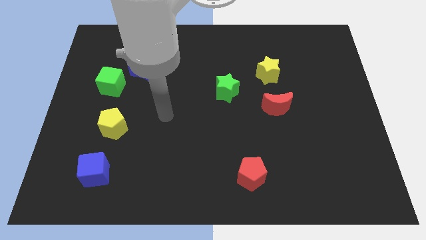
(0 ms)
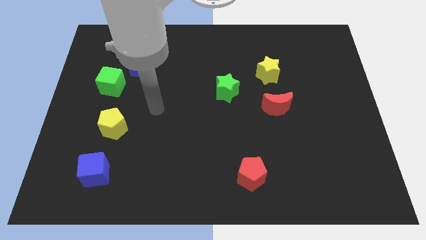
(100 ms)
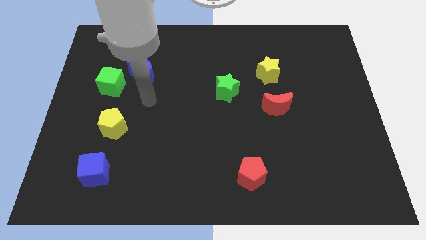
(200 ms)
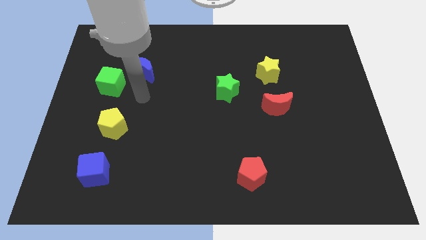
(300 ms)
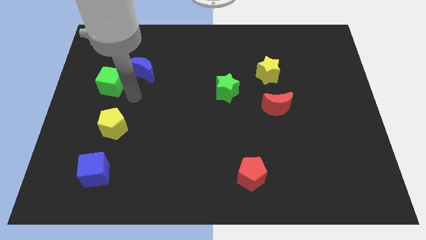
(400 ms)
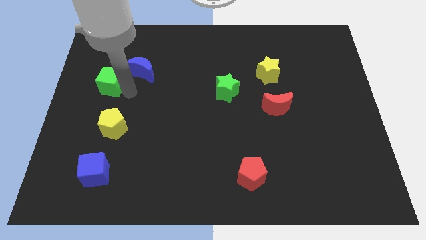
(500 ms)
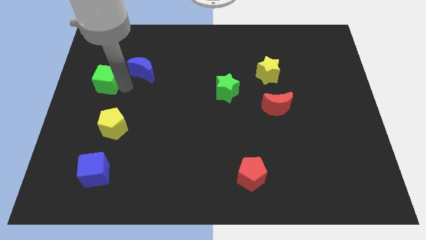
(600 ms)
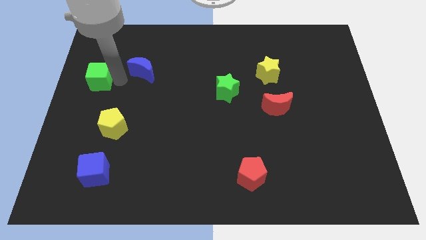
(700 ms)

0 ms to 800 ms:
separate the blue moon from the green cube

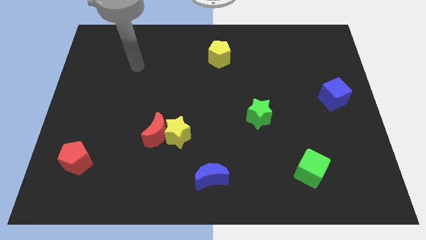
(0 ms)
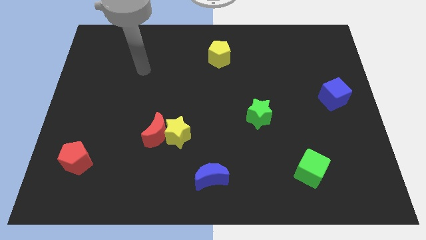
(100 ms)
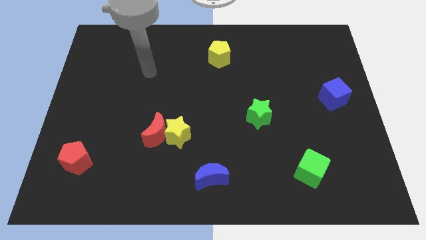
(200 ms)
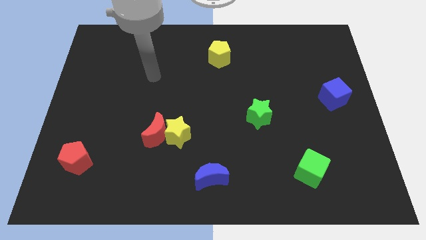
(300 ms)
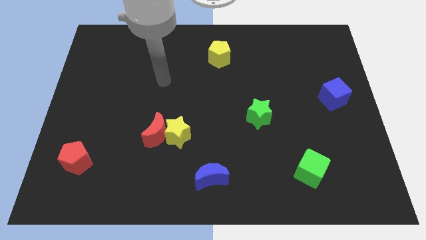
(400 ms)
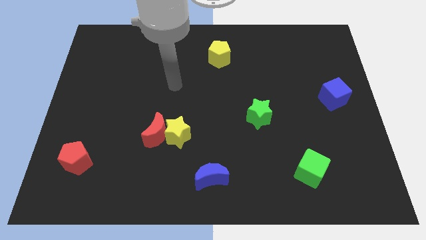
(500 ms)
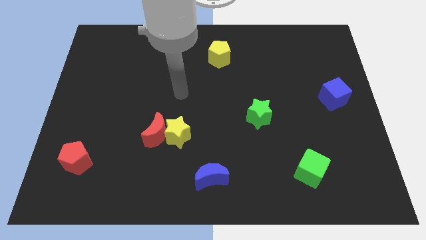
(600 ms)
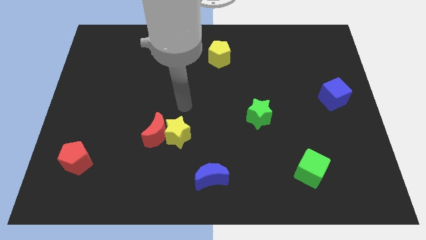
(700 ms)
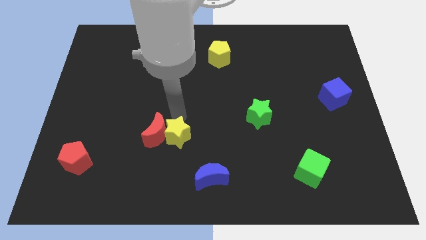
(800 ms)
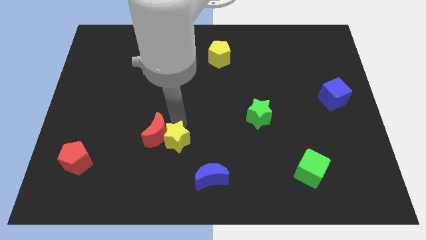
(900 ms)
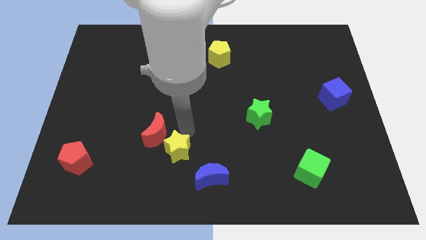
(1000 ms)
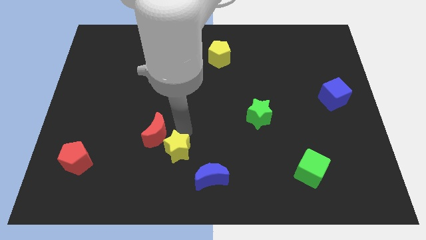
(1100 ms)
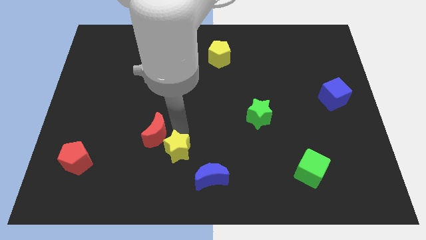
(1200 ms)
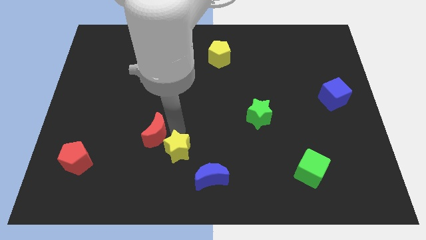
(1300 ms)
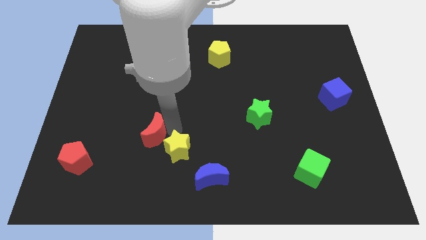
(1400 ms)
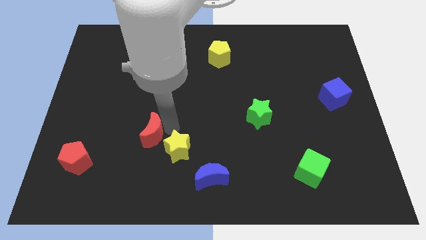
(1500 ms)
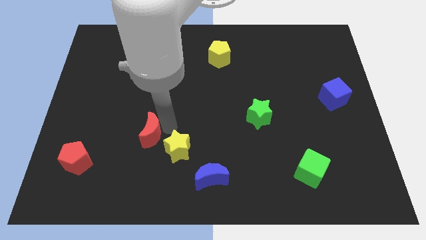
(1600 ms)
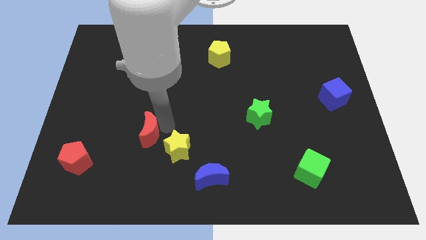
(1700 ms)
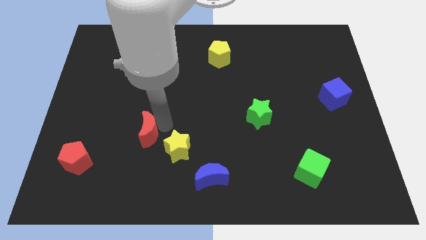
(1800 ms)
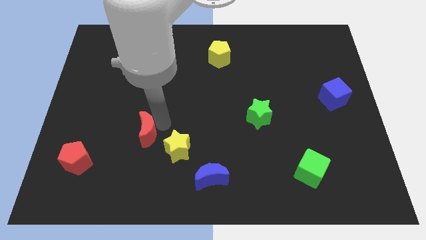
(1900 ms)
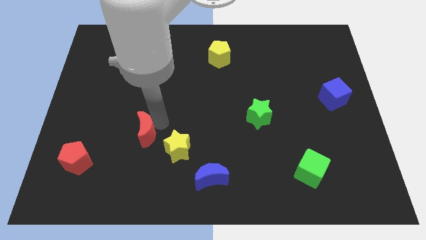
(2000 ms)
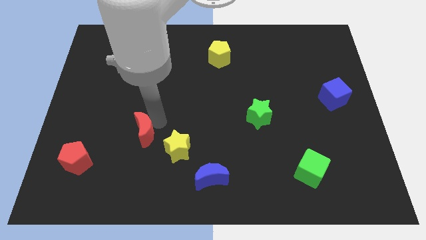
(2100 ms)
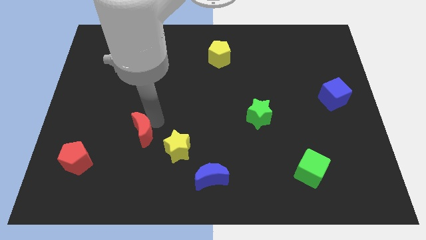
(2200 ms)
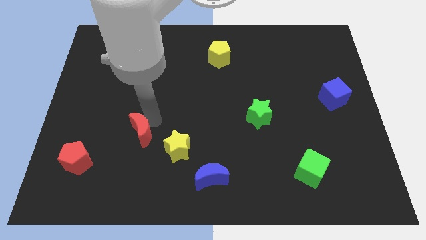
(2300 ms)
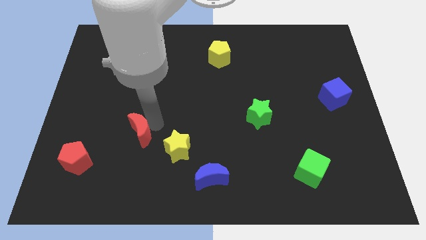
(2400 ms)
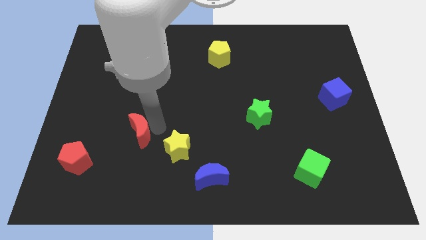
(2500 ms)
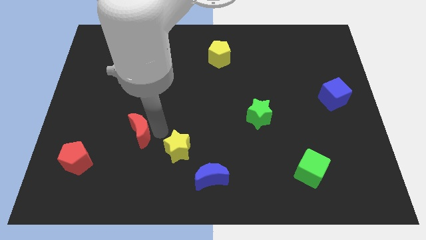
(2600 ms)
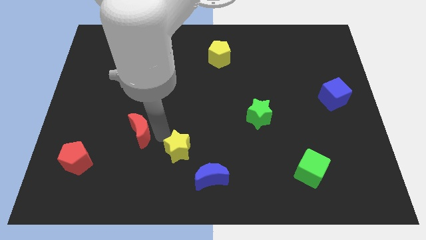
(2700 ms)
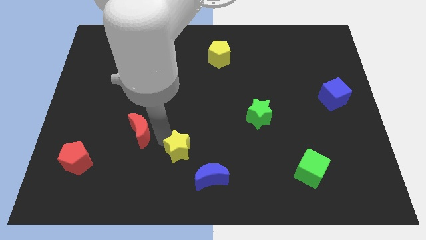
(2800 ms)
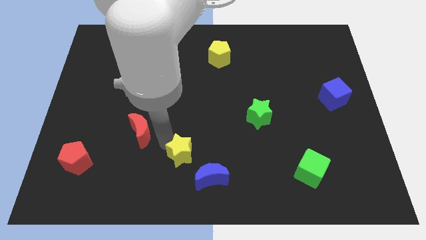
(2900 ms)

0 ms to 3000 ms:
move the red moon away from the yellow star

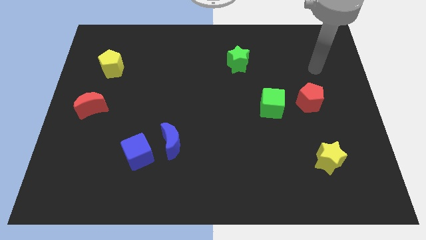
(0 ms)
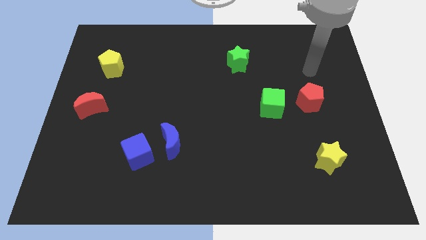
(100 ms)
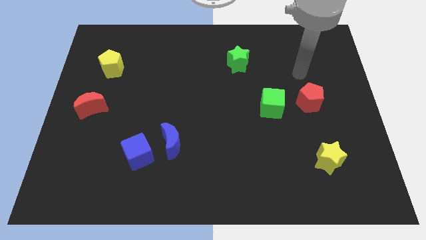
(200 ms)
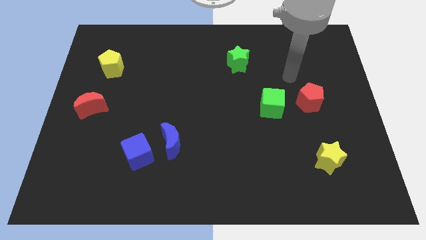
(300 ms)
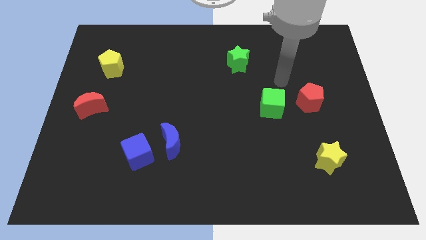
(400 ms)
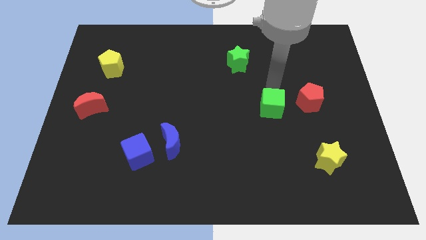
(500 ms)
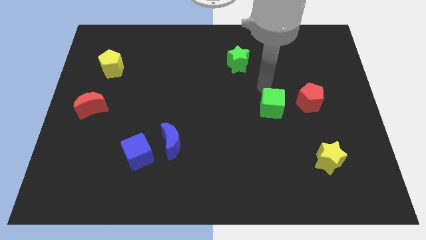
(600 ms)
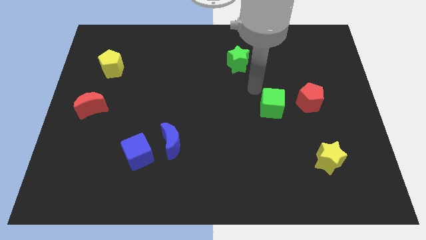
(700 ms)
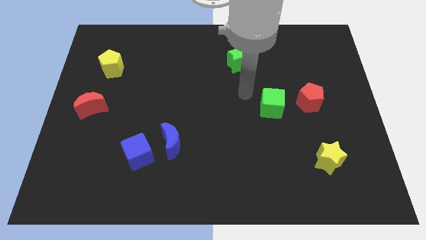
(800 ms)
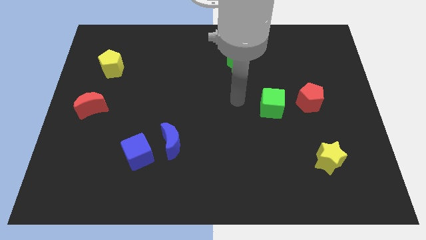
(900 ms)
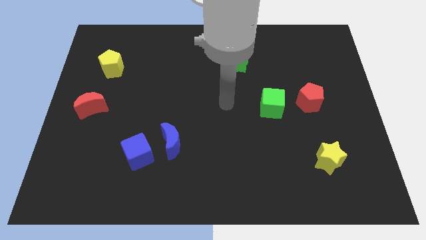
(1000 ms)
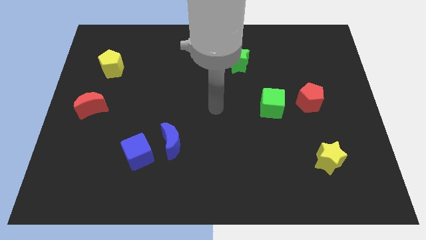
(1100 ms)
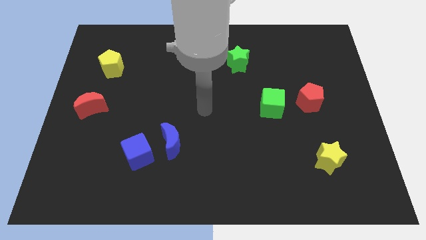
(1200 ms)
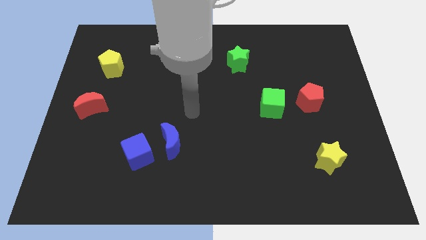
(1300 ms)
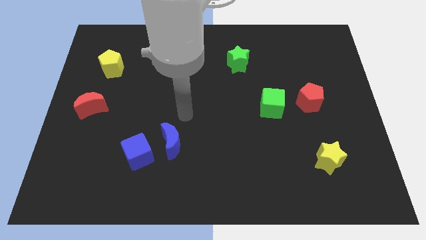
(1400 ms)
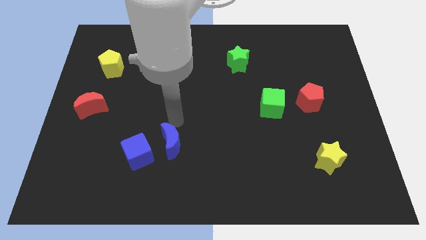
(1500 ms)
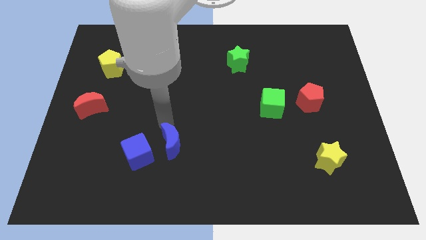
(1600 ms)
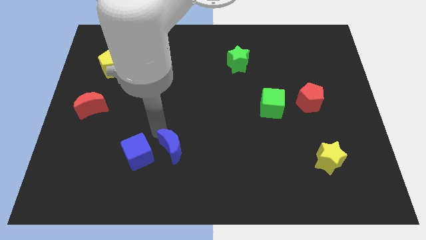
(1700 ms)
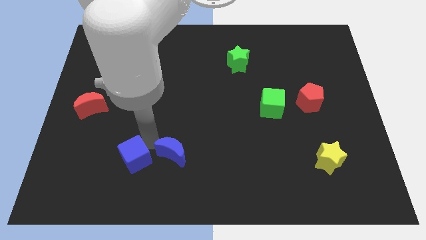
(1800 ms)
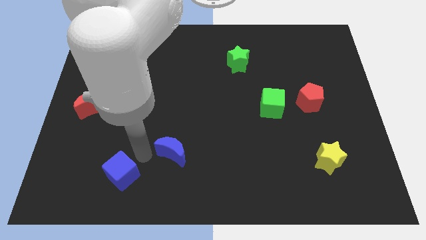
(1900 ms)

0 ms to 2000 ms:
separate the blue moon from the blue cube

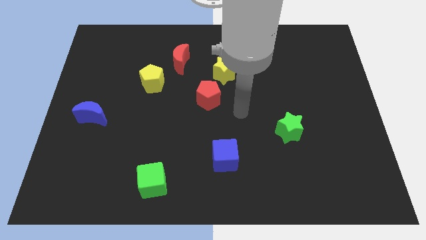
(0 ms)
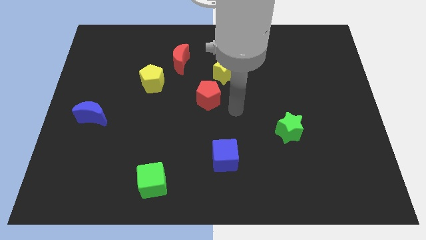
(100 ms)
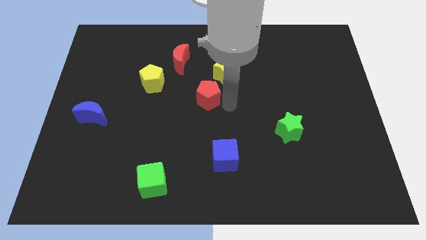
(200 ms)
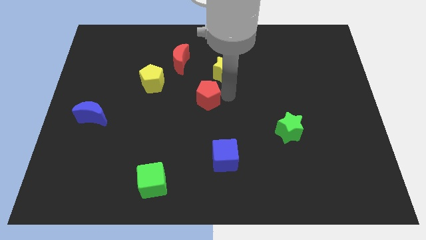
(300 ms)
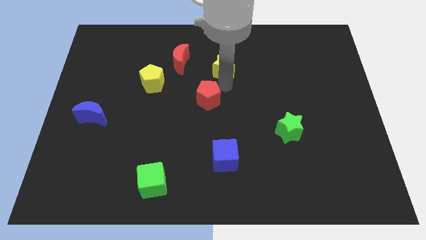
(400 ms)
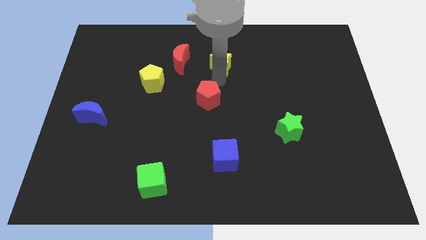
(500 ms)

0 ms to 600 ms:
move the red pentagon away from the yellow star

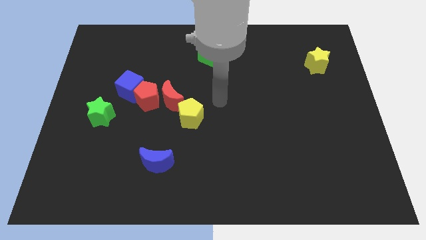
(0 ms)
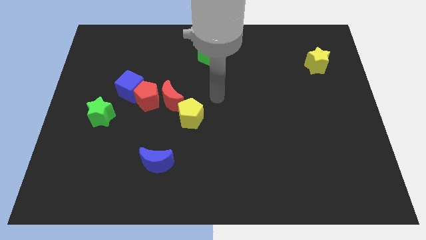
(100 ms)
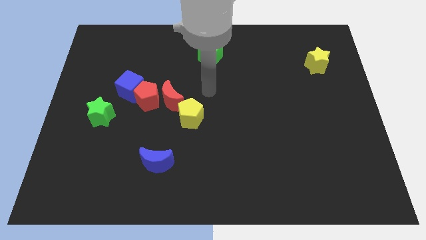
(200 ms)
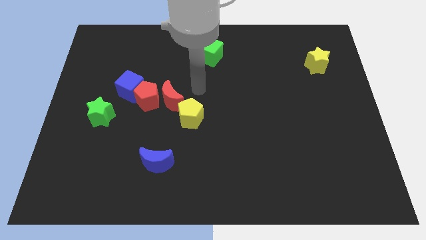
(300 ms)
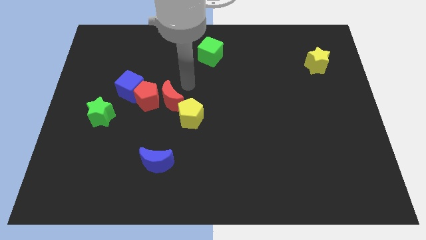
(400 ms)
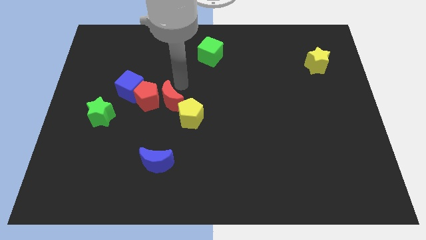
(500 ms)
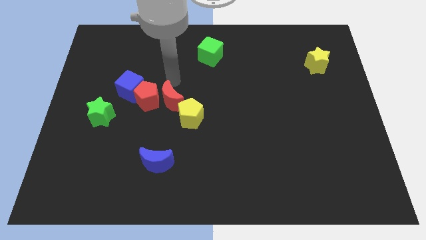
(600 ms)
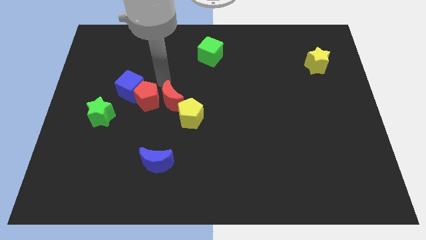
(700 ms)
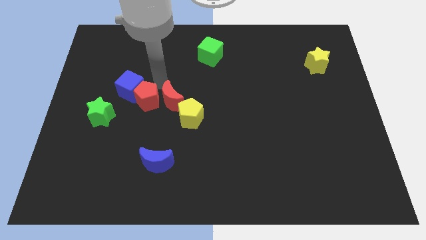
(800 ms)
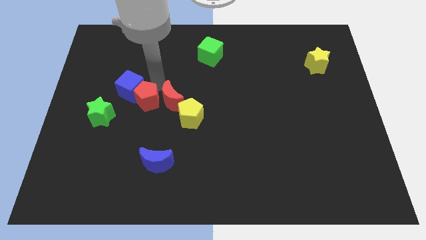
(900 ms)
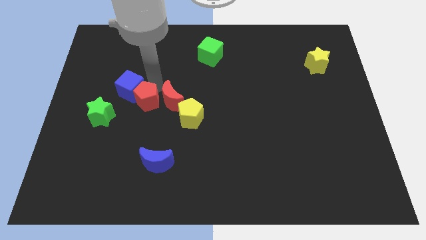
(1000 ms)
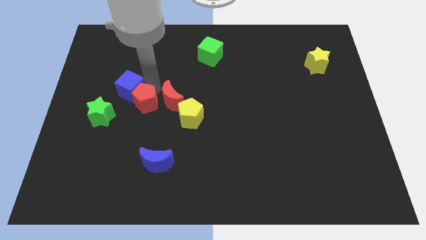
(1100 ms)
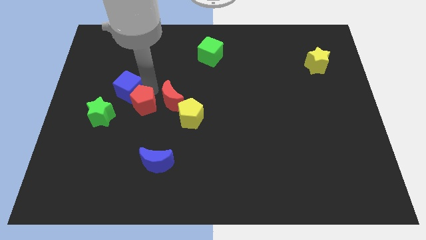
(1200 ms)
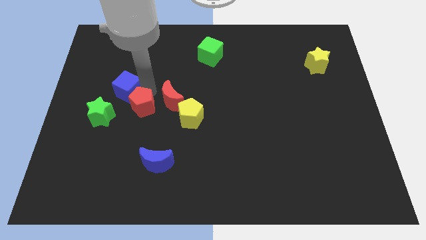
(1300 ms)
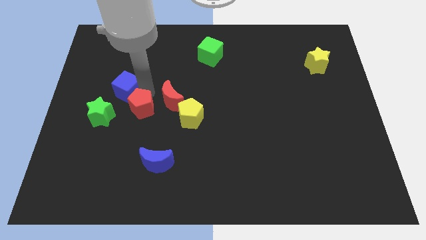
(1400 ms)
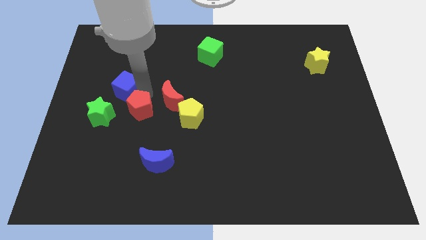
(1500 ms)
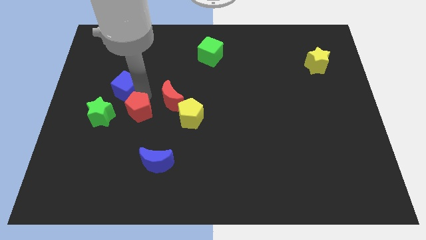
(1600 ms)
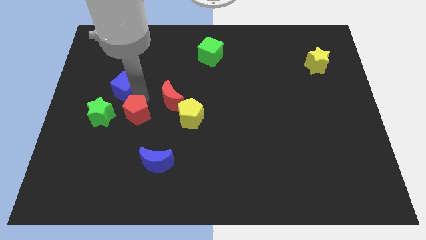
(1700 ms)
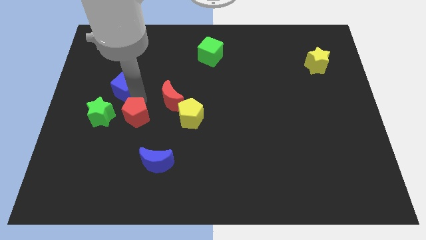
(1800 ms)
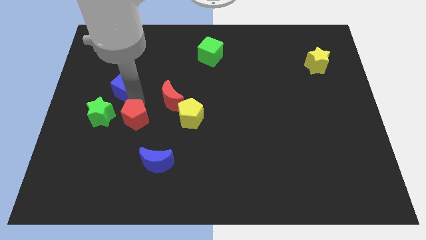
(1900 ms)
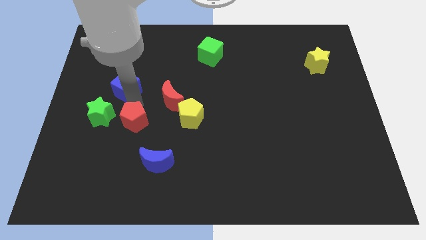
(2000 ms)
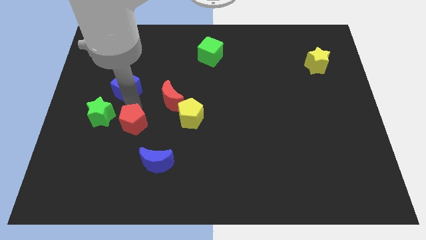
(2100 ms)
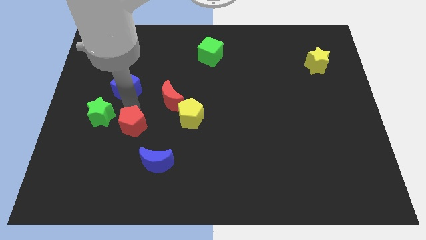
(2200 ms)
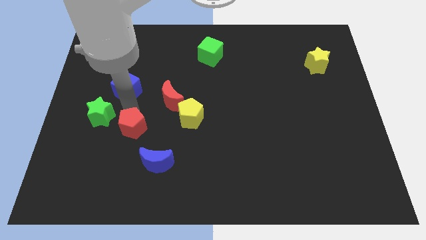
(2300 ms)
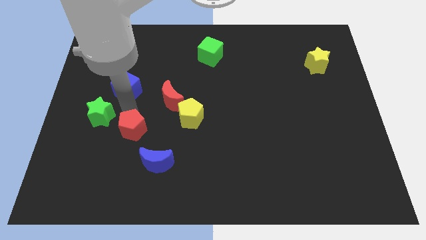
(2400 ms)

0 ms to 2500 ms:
move the red pentagon away from the blue cube and red moon

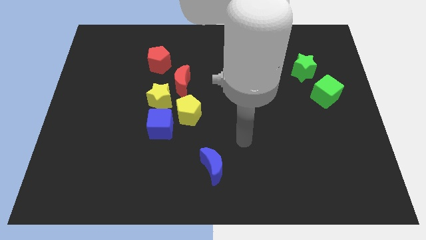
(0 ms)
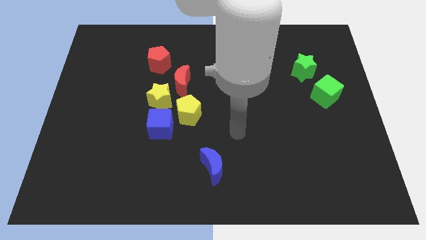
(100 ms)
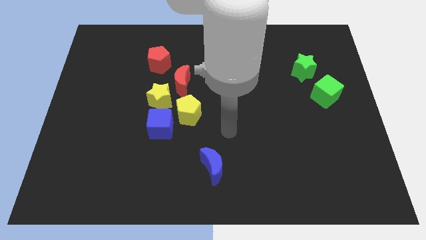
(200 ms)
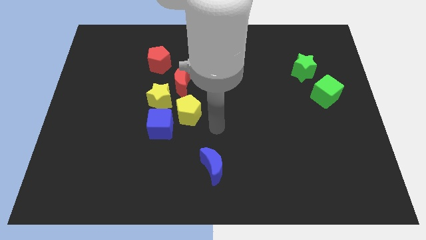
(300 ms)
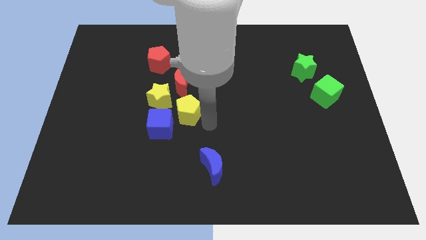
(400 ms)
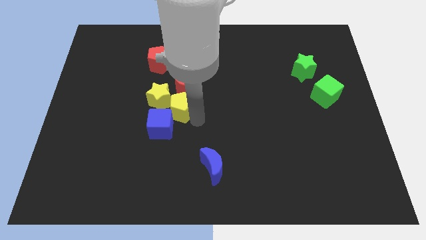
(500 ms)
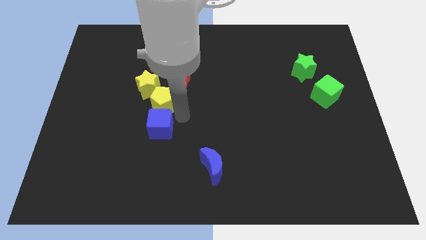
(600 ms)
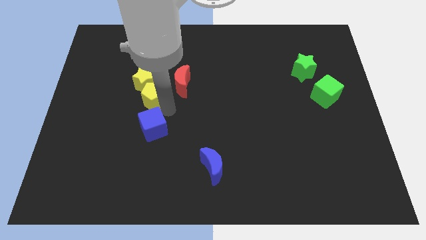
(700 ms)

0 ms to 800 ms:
separate the blue cube from the yellow pentagon and yellow star
